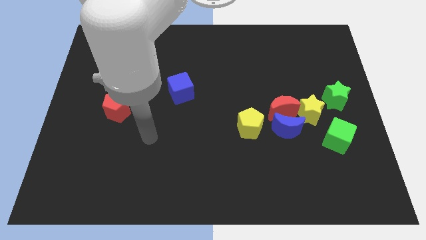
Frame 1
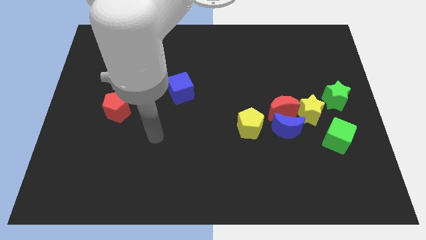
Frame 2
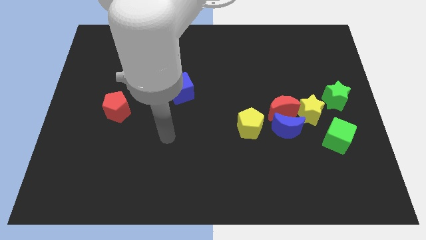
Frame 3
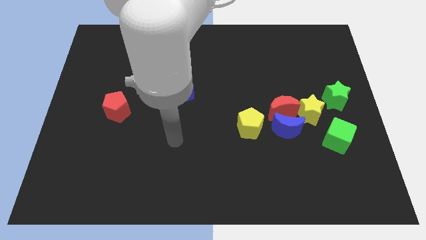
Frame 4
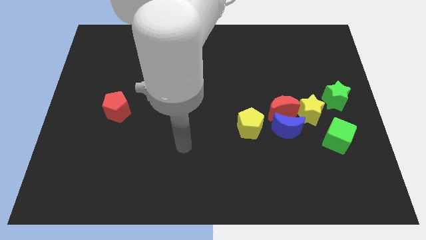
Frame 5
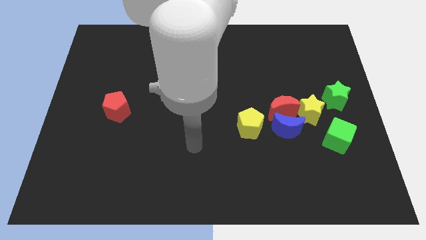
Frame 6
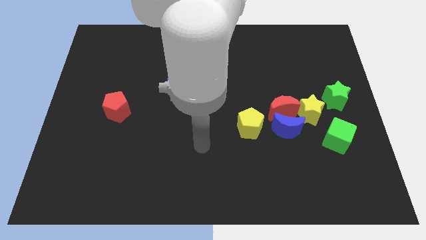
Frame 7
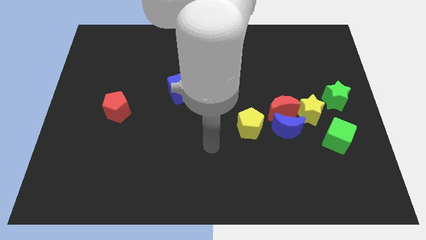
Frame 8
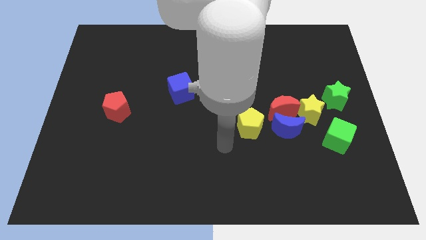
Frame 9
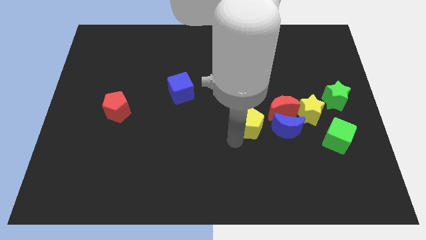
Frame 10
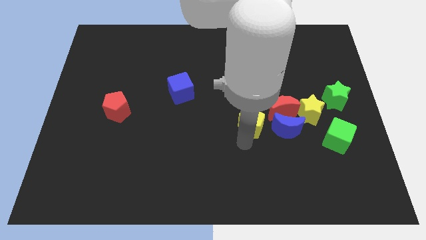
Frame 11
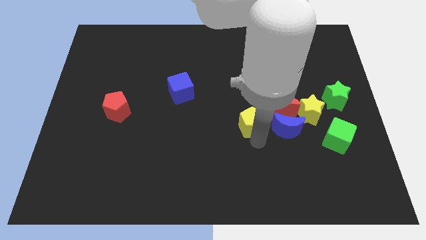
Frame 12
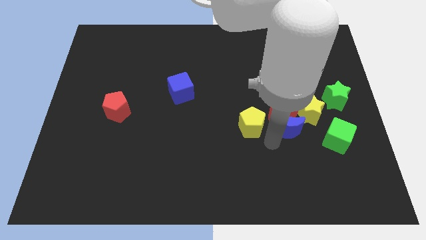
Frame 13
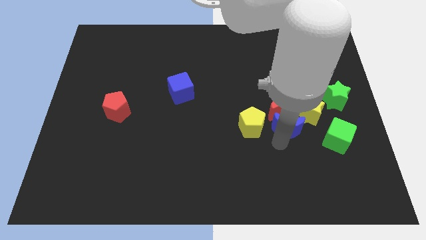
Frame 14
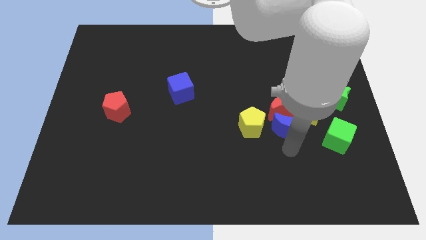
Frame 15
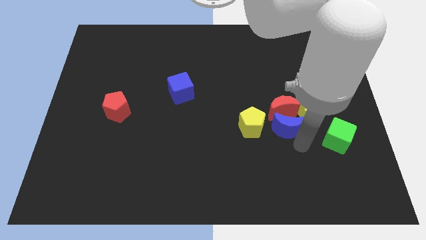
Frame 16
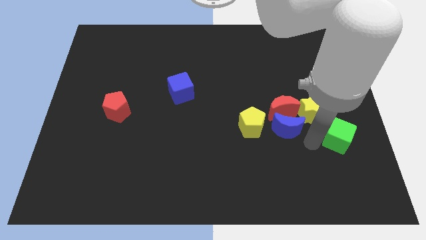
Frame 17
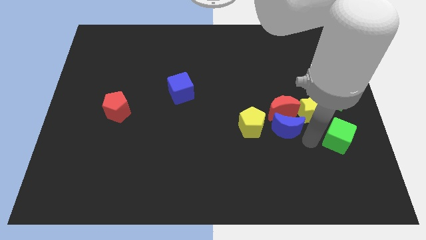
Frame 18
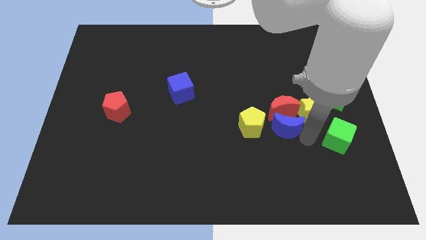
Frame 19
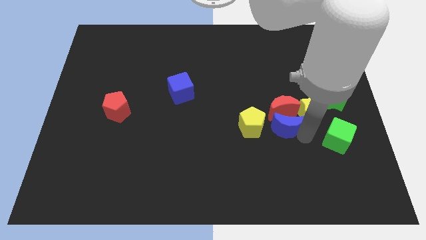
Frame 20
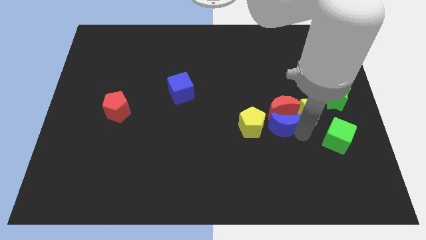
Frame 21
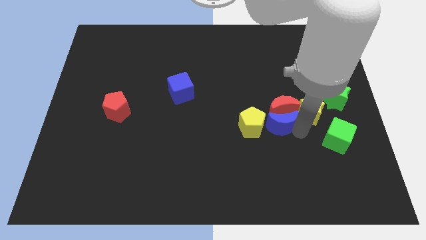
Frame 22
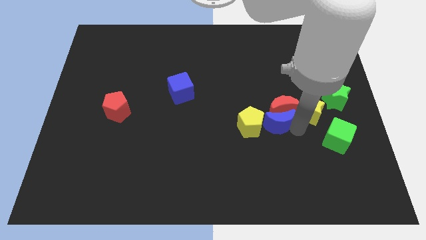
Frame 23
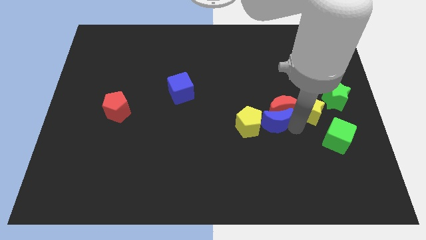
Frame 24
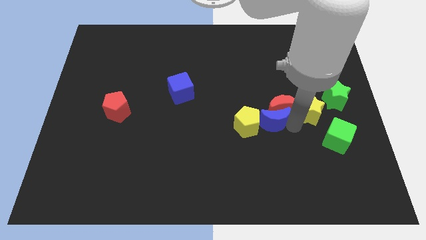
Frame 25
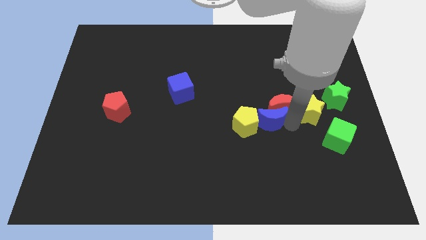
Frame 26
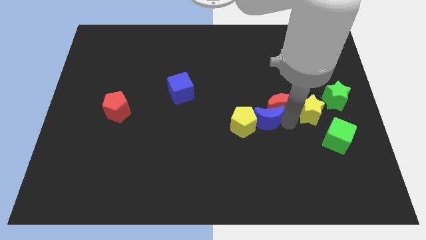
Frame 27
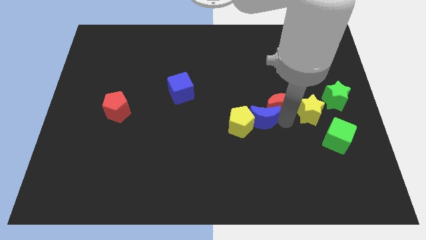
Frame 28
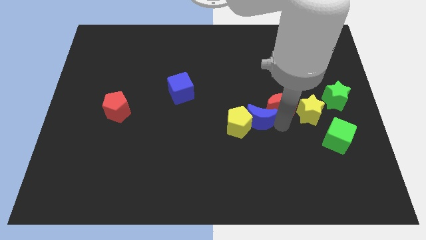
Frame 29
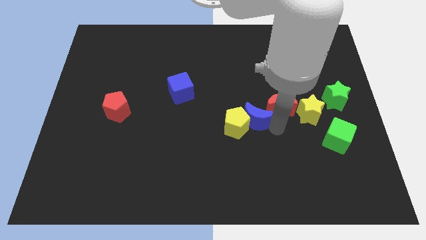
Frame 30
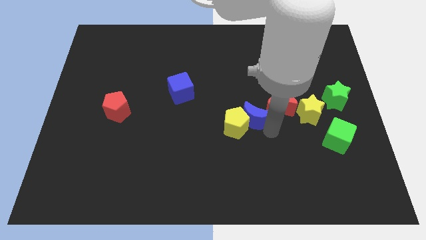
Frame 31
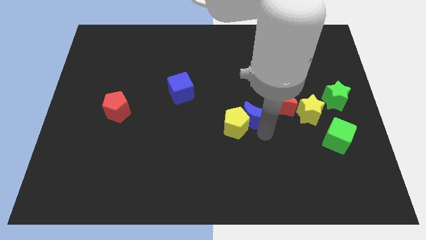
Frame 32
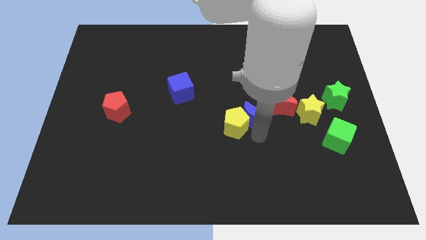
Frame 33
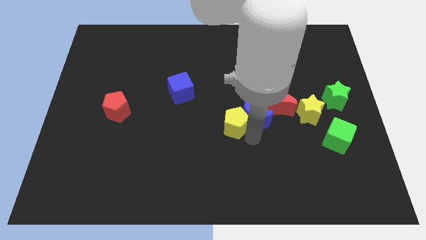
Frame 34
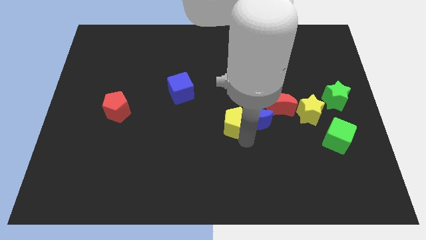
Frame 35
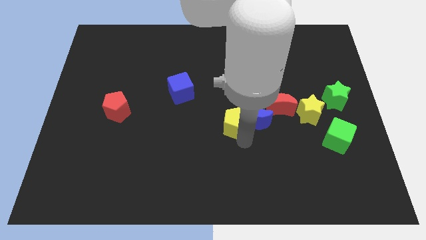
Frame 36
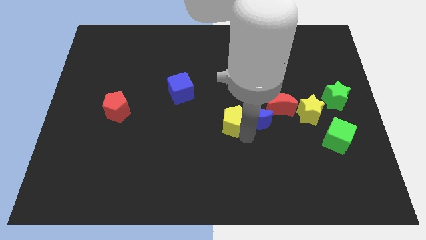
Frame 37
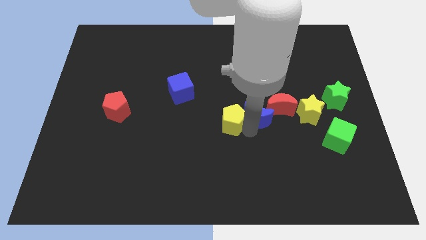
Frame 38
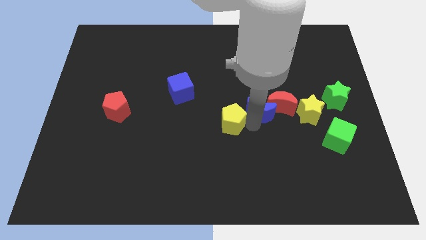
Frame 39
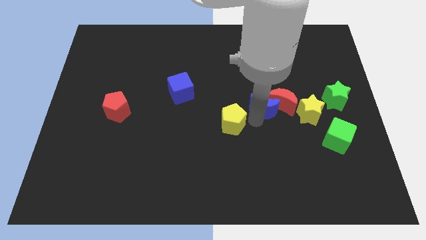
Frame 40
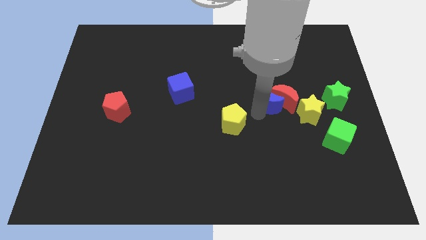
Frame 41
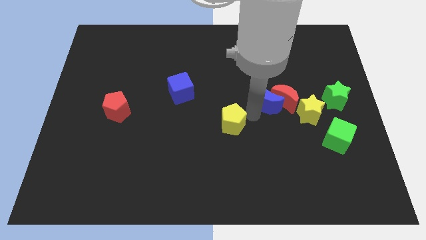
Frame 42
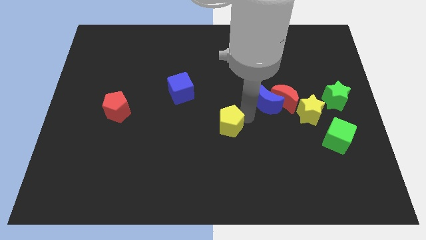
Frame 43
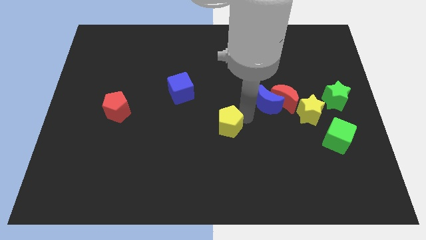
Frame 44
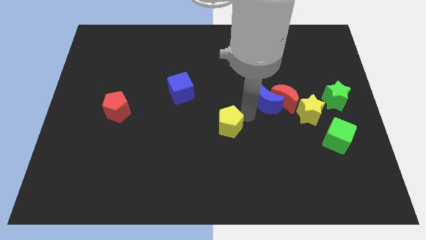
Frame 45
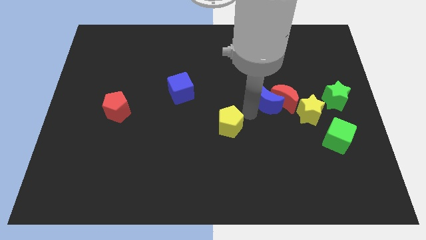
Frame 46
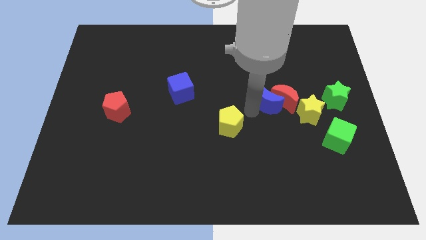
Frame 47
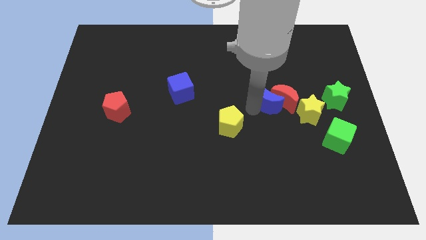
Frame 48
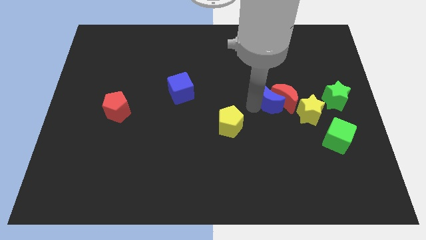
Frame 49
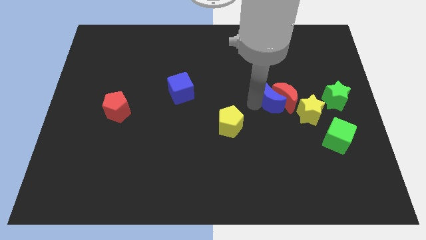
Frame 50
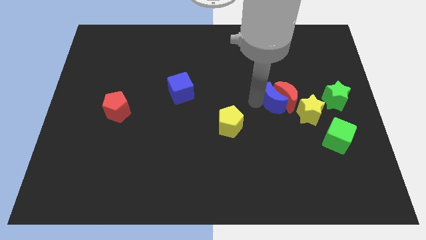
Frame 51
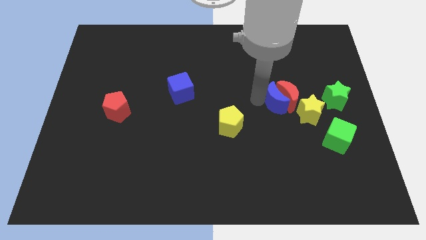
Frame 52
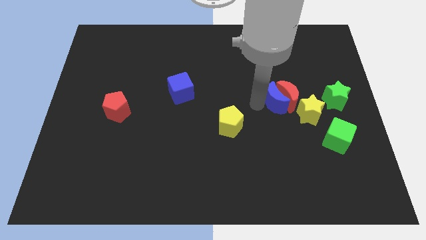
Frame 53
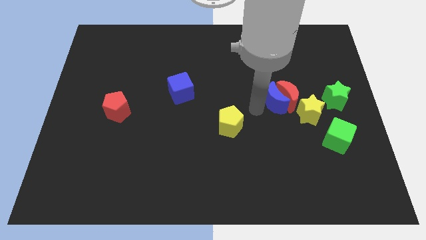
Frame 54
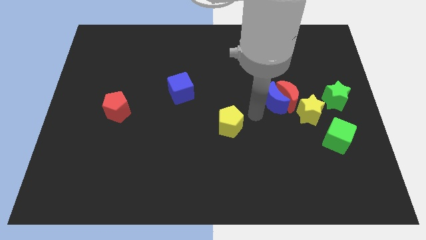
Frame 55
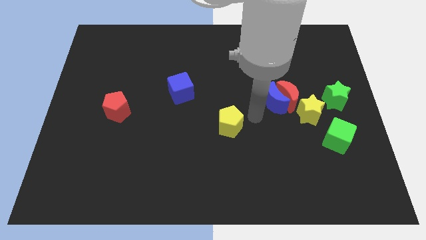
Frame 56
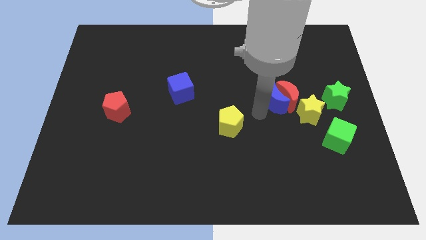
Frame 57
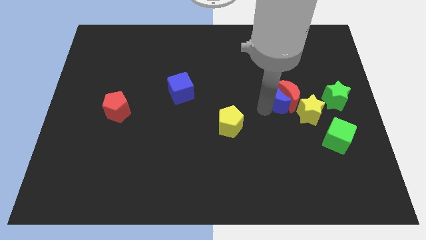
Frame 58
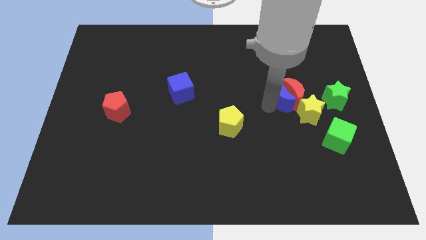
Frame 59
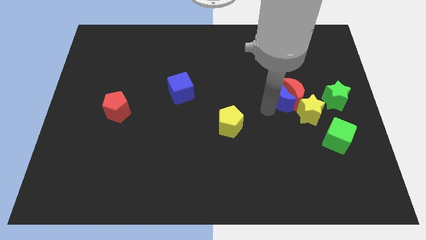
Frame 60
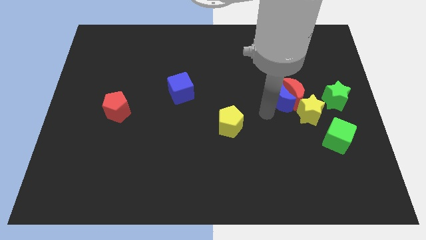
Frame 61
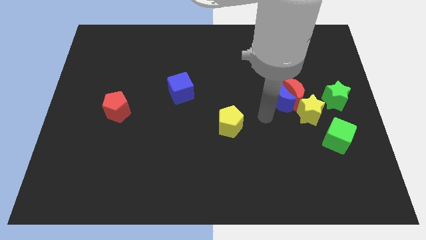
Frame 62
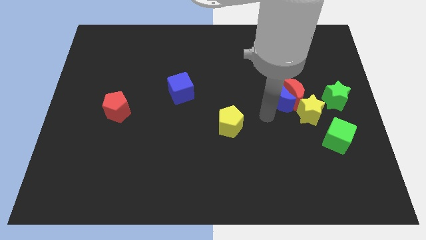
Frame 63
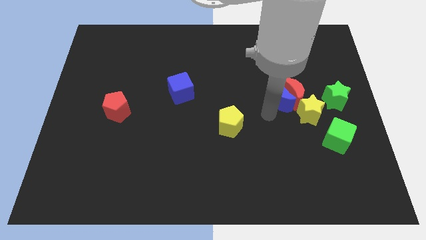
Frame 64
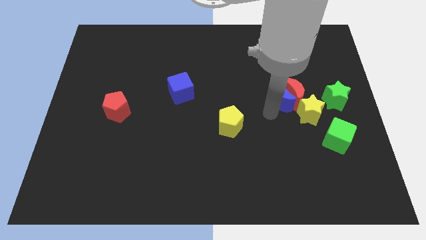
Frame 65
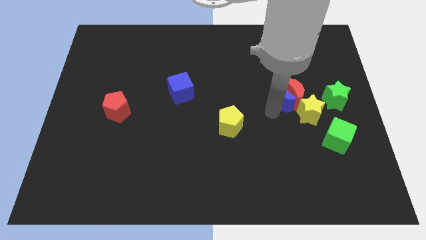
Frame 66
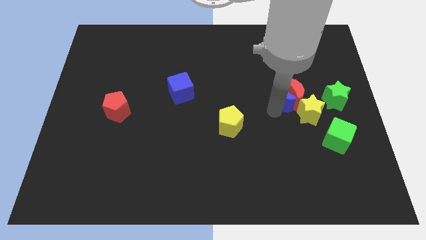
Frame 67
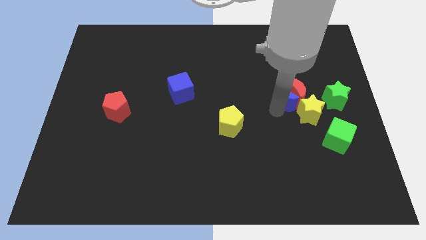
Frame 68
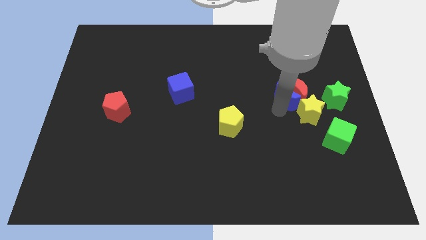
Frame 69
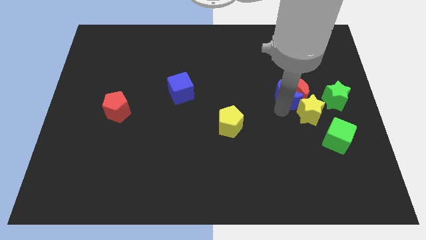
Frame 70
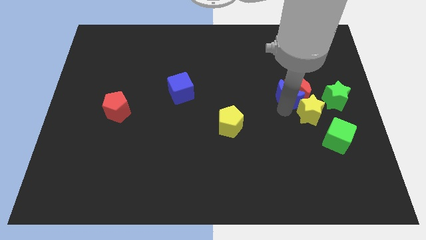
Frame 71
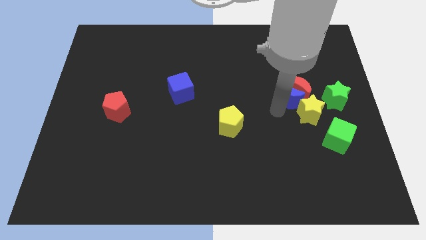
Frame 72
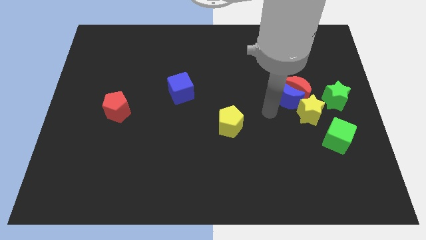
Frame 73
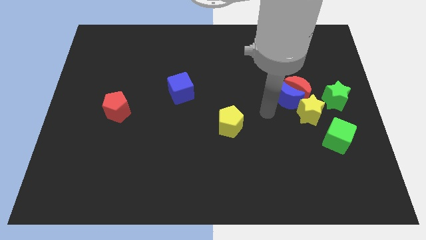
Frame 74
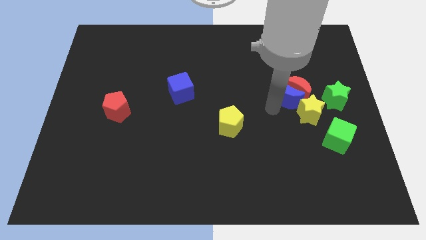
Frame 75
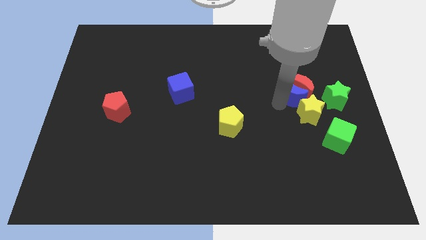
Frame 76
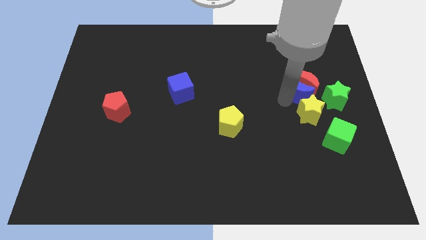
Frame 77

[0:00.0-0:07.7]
slide the blue moon to the top left of the green star
